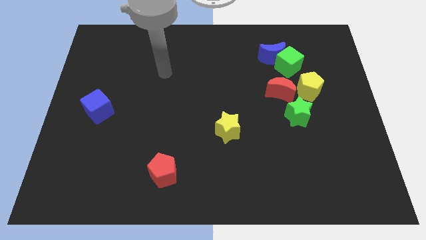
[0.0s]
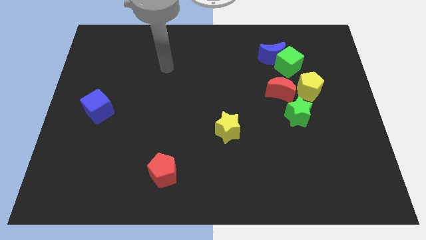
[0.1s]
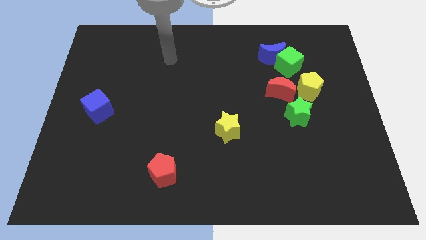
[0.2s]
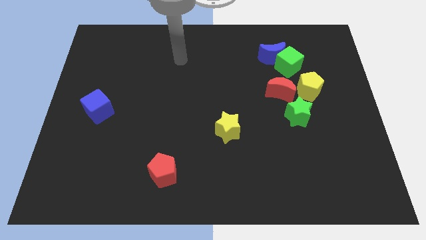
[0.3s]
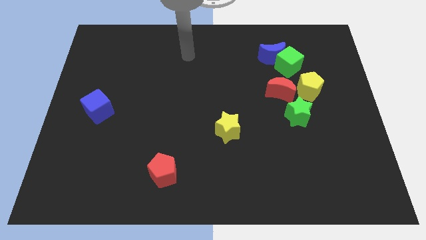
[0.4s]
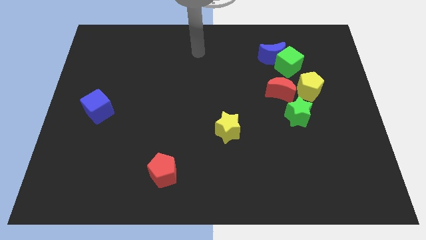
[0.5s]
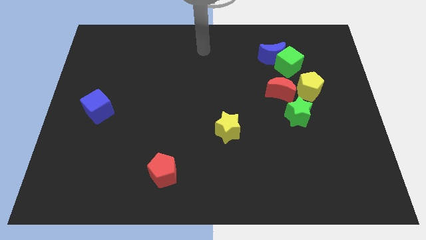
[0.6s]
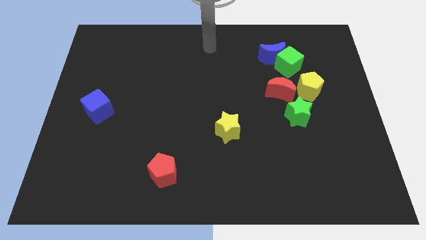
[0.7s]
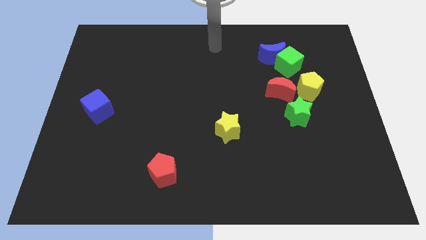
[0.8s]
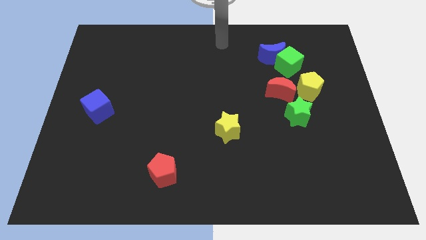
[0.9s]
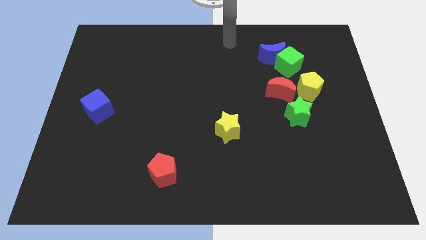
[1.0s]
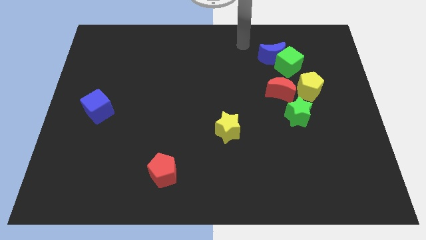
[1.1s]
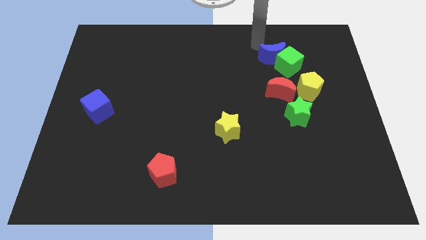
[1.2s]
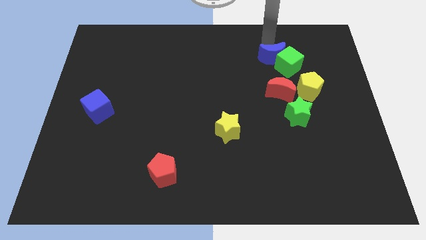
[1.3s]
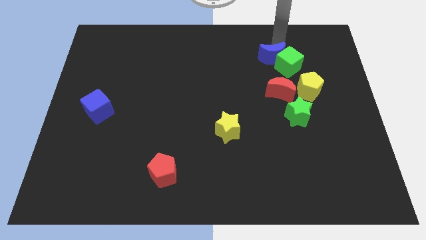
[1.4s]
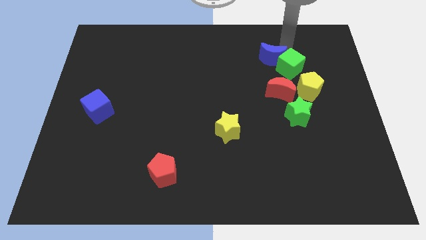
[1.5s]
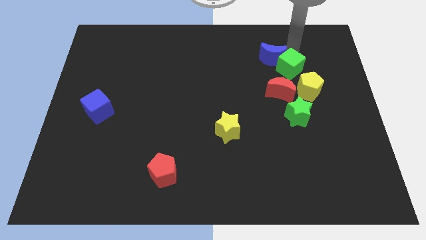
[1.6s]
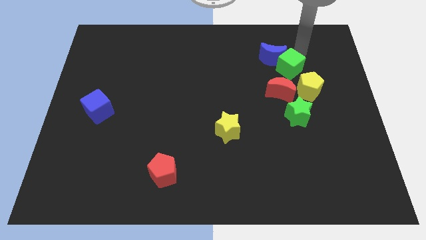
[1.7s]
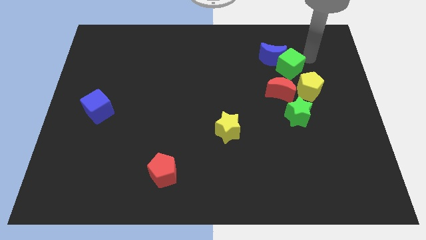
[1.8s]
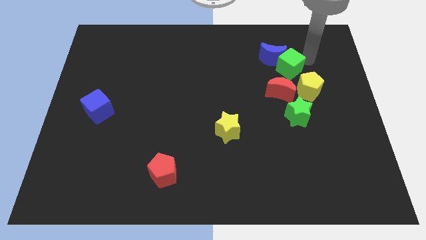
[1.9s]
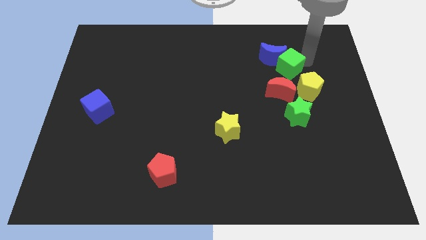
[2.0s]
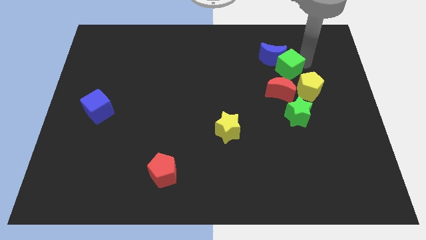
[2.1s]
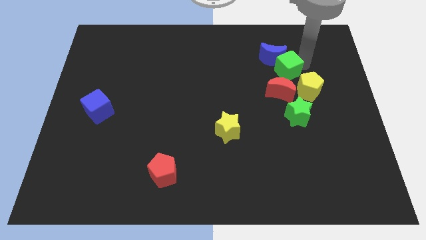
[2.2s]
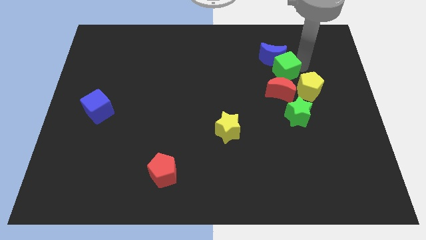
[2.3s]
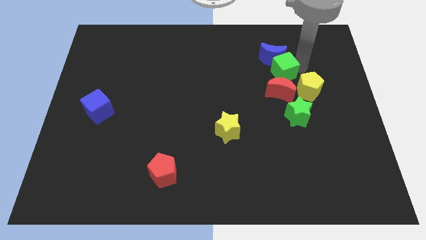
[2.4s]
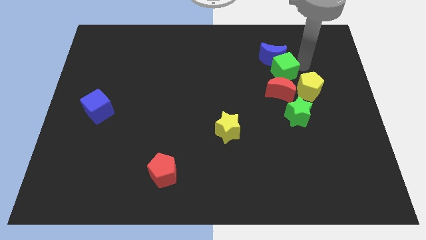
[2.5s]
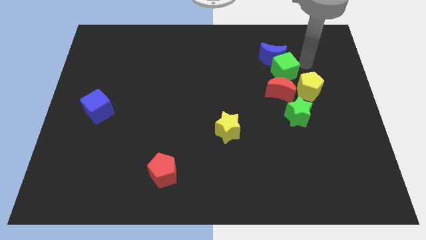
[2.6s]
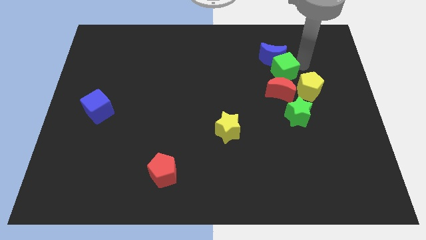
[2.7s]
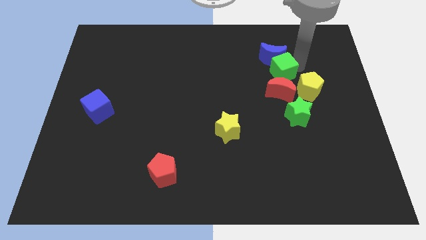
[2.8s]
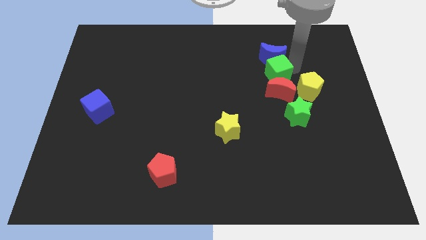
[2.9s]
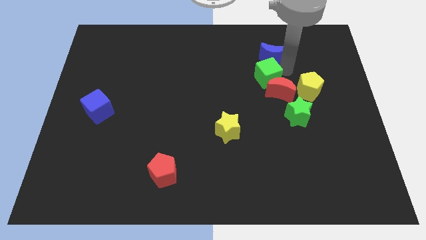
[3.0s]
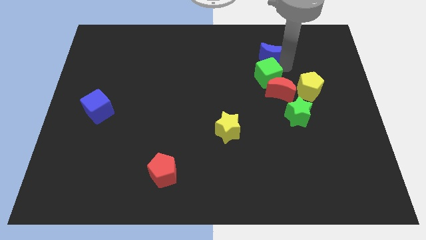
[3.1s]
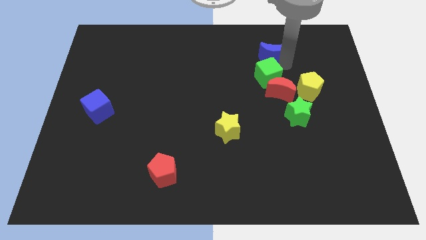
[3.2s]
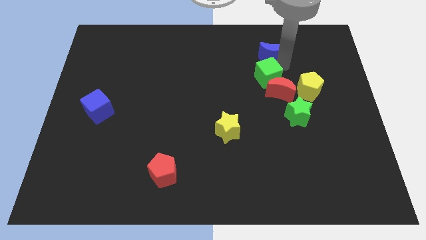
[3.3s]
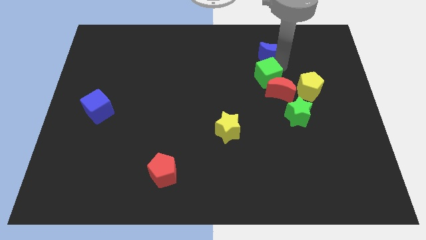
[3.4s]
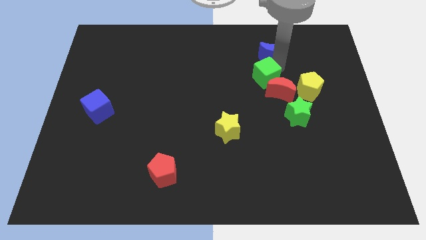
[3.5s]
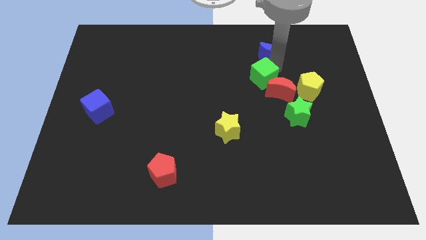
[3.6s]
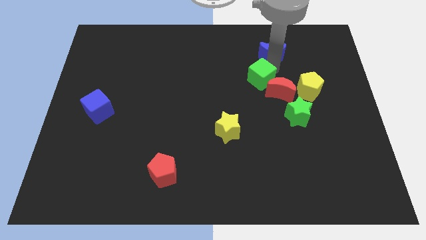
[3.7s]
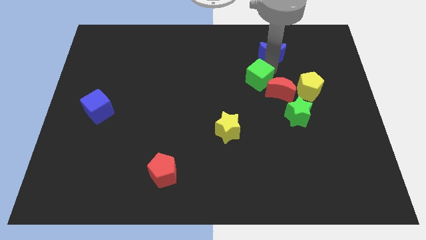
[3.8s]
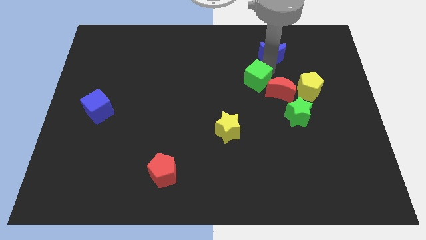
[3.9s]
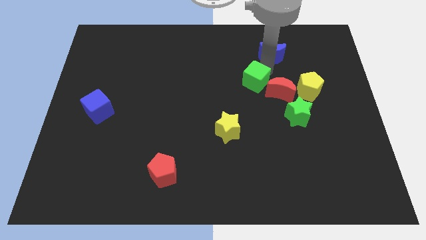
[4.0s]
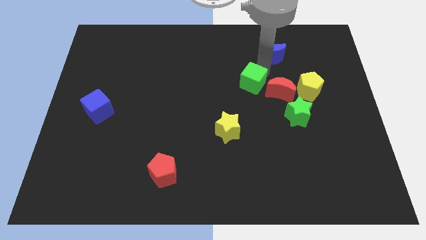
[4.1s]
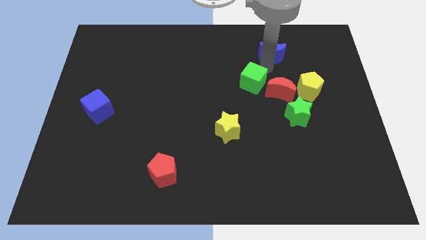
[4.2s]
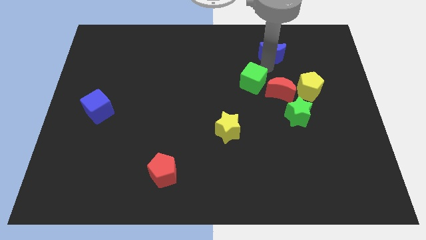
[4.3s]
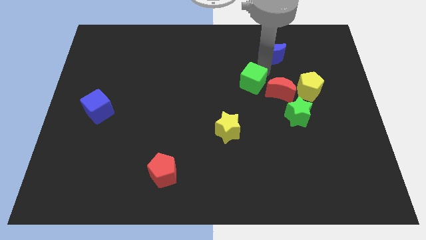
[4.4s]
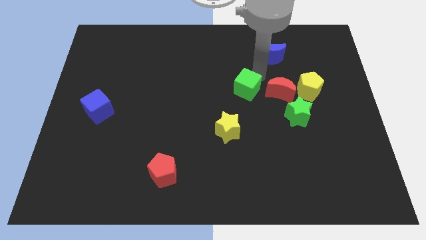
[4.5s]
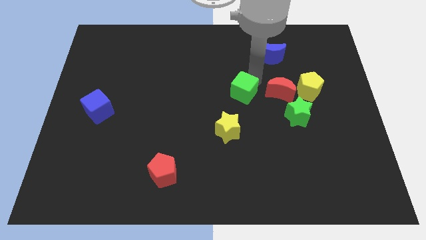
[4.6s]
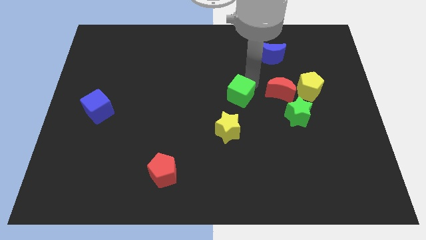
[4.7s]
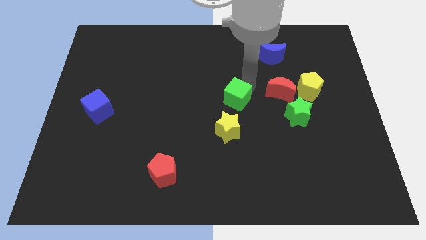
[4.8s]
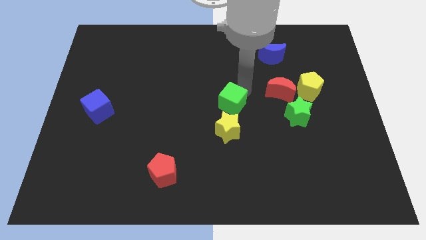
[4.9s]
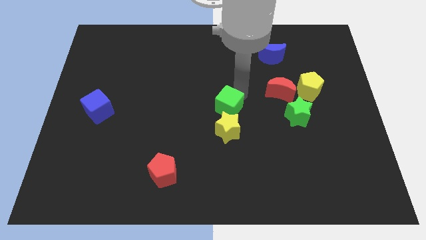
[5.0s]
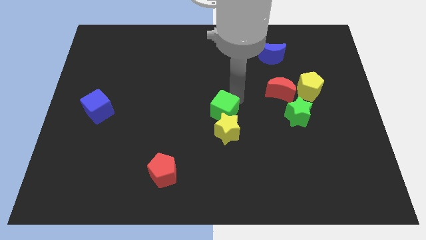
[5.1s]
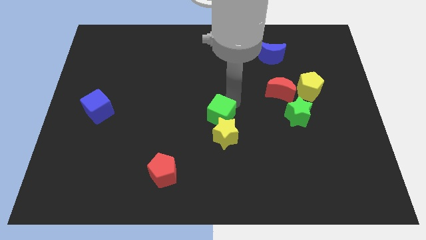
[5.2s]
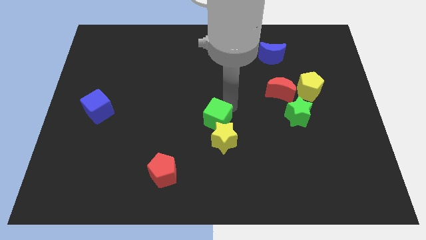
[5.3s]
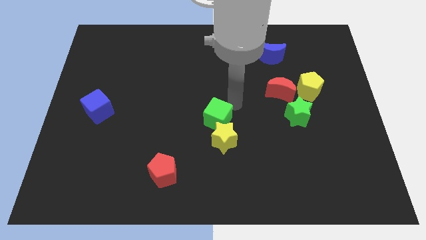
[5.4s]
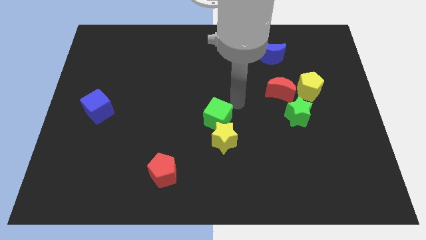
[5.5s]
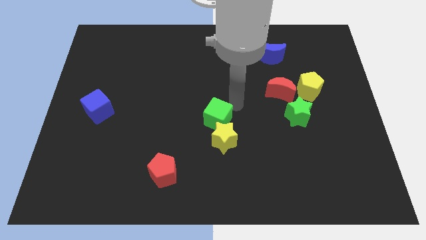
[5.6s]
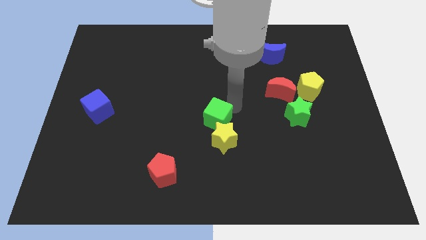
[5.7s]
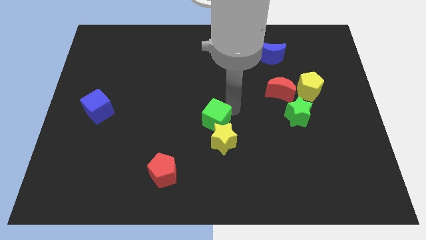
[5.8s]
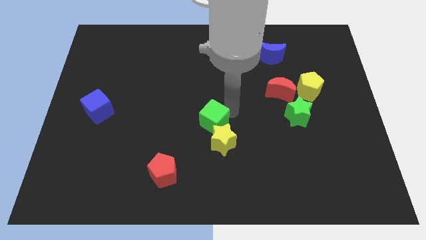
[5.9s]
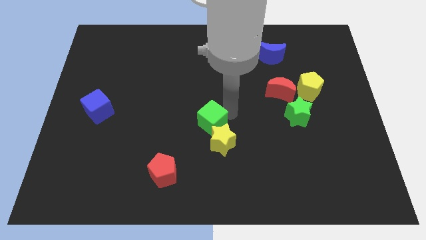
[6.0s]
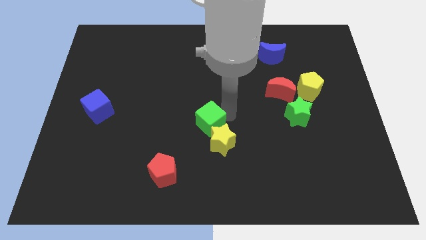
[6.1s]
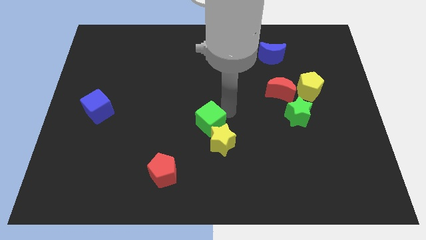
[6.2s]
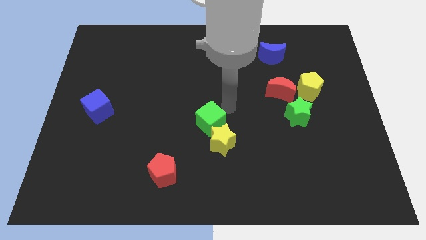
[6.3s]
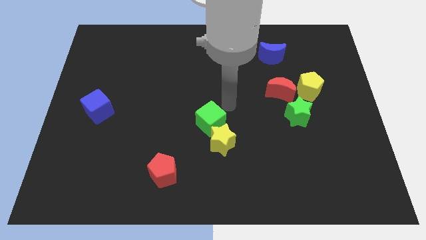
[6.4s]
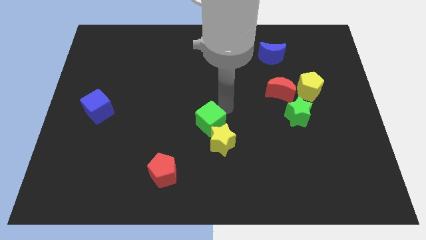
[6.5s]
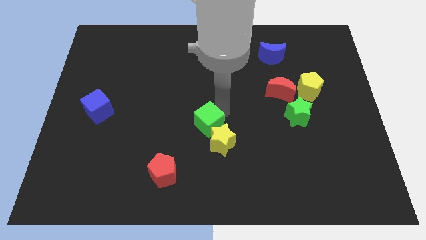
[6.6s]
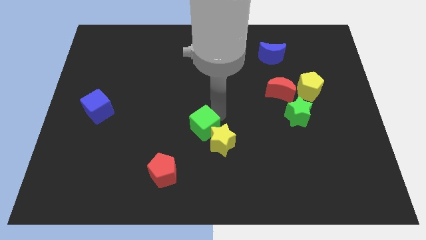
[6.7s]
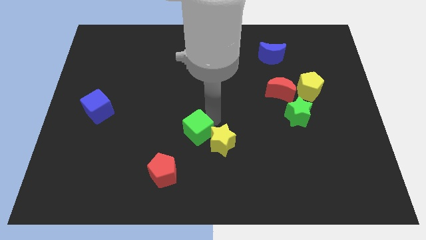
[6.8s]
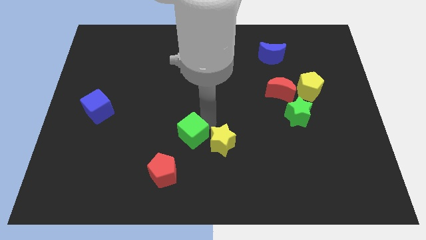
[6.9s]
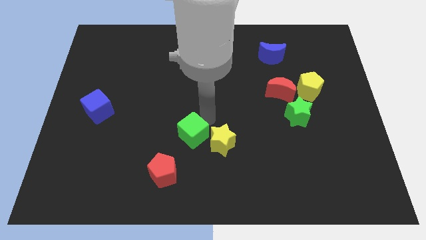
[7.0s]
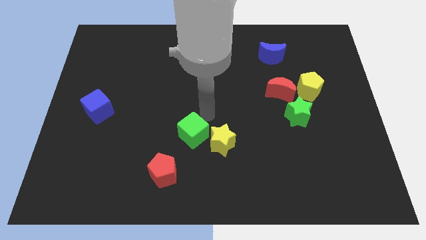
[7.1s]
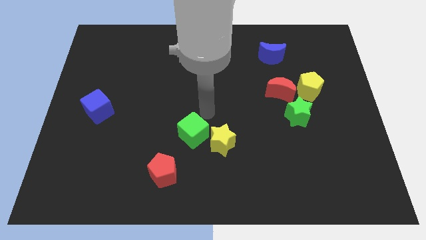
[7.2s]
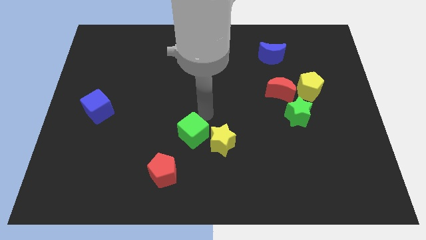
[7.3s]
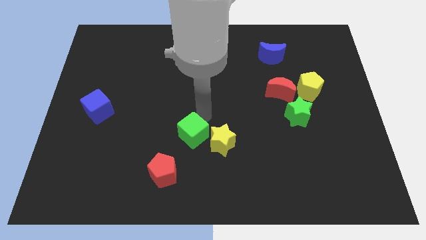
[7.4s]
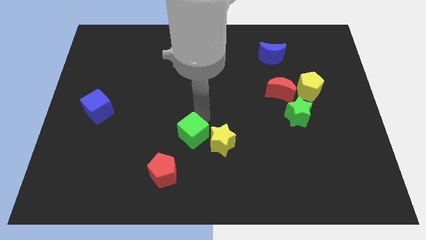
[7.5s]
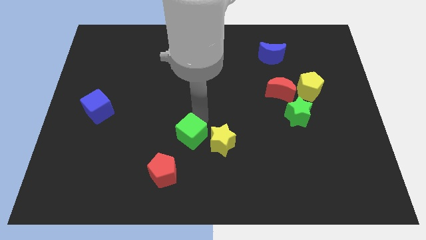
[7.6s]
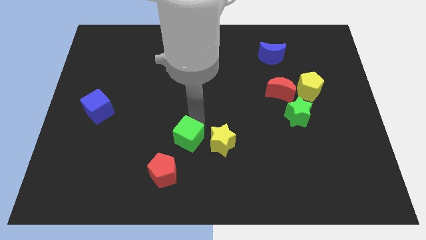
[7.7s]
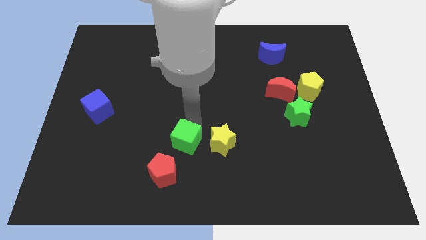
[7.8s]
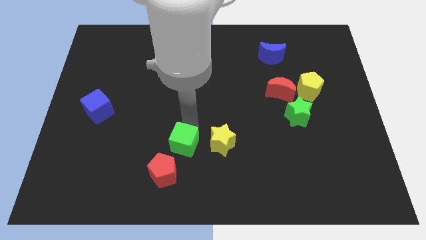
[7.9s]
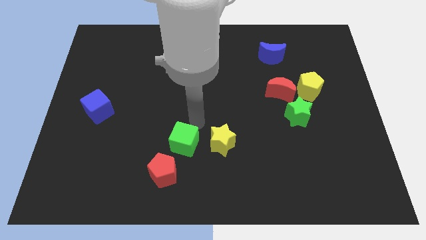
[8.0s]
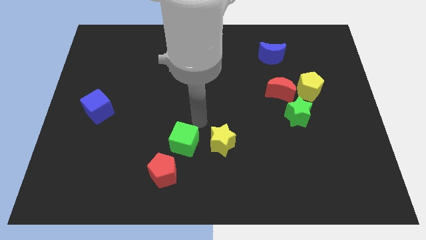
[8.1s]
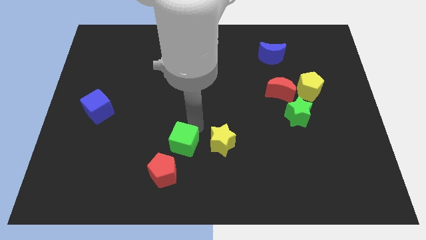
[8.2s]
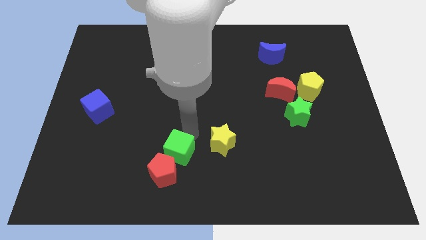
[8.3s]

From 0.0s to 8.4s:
move the green cube to the red pentagon
